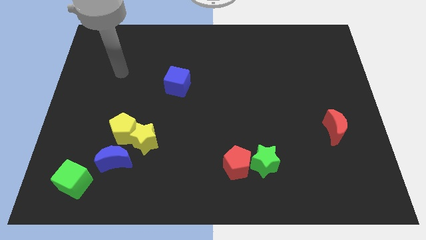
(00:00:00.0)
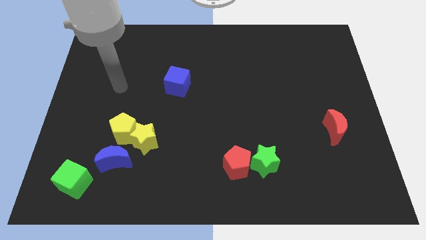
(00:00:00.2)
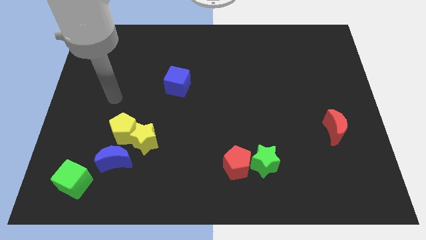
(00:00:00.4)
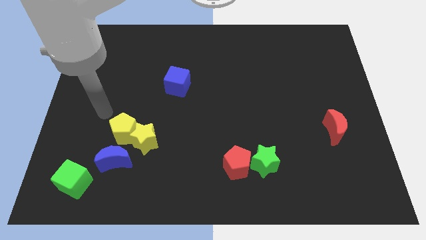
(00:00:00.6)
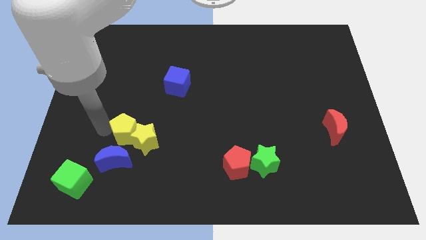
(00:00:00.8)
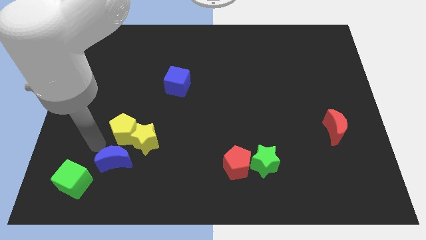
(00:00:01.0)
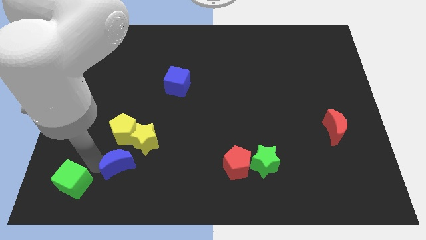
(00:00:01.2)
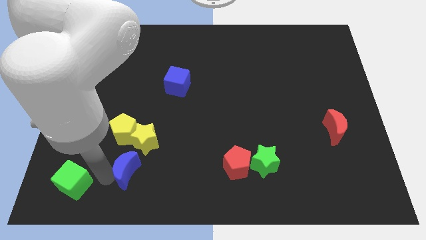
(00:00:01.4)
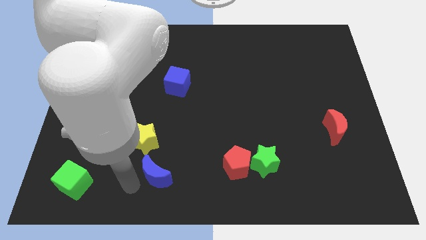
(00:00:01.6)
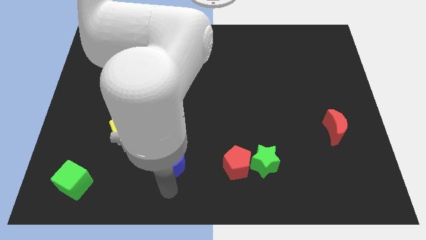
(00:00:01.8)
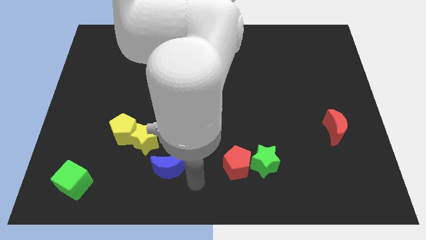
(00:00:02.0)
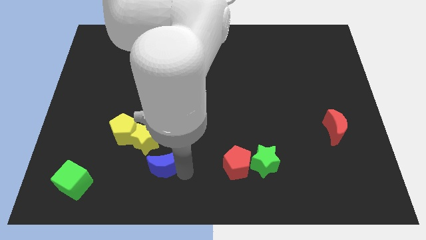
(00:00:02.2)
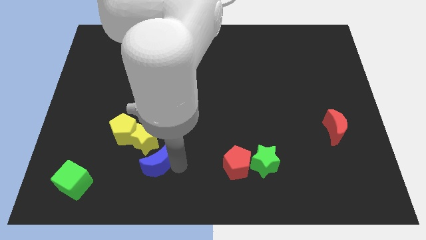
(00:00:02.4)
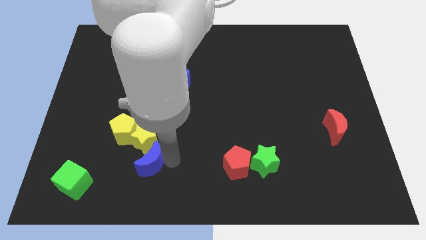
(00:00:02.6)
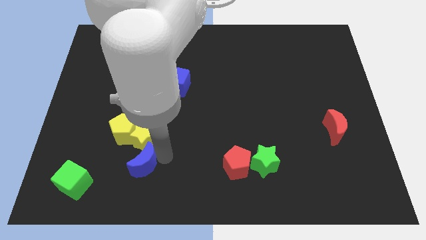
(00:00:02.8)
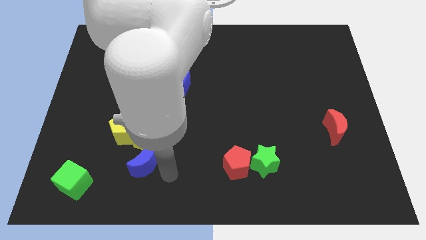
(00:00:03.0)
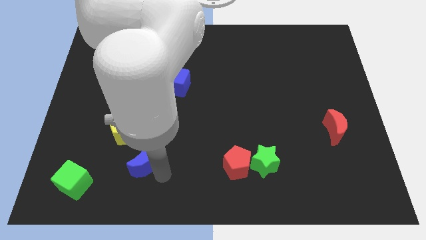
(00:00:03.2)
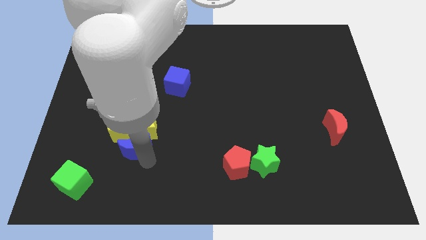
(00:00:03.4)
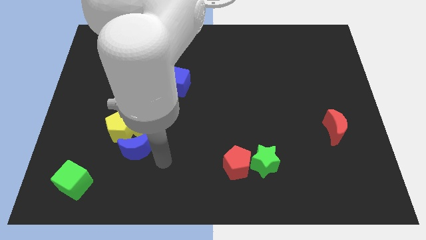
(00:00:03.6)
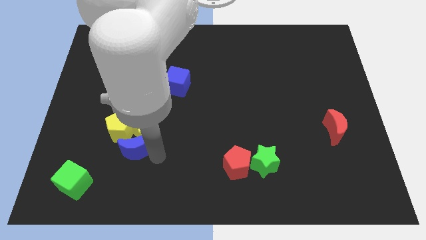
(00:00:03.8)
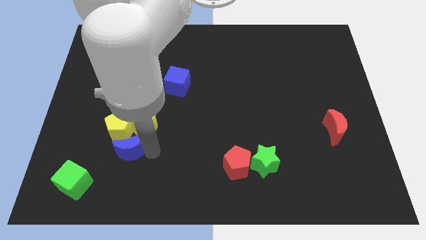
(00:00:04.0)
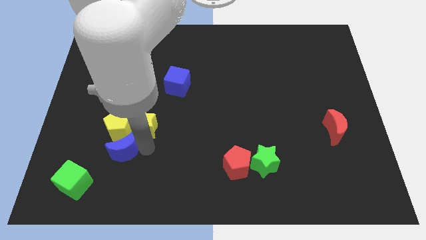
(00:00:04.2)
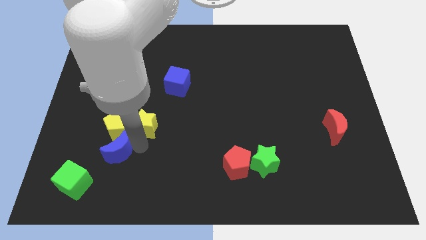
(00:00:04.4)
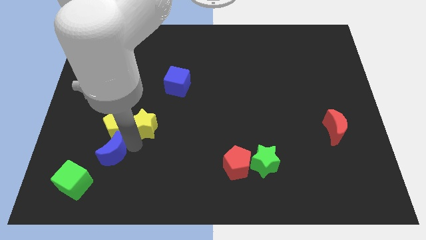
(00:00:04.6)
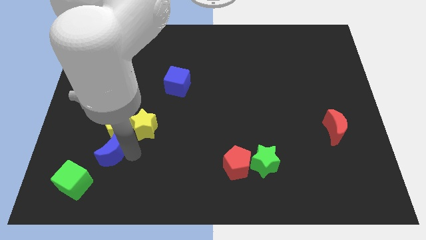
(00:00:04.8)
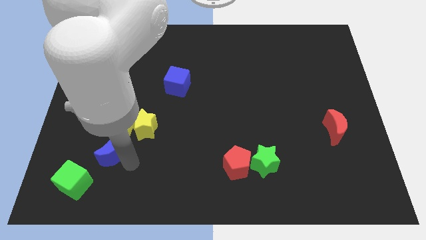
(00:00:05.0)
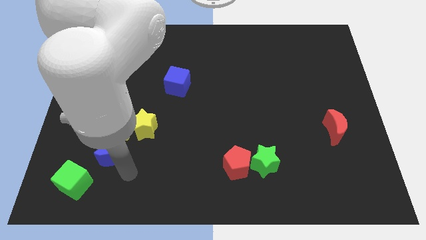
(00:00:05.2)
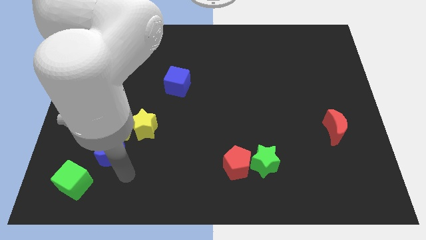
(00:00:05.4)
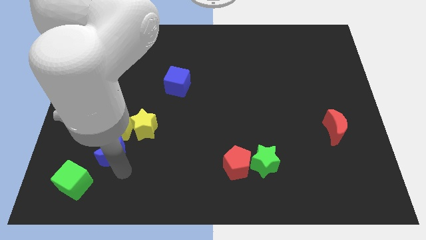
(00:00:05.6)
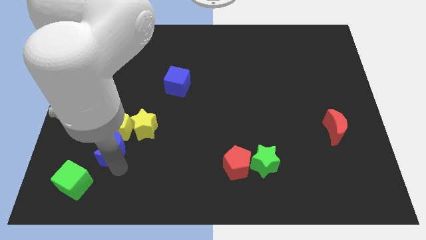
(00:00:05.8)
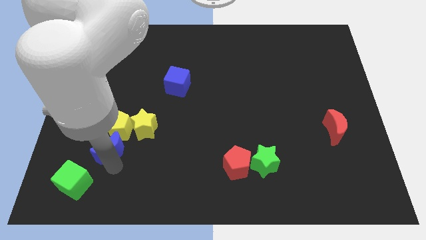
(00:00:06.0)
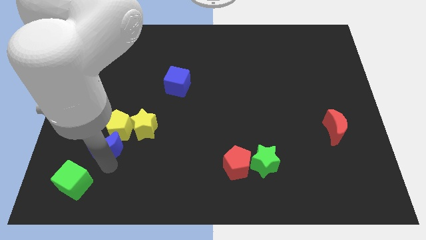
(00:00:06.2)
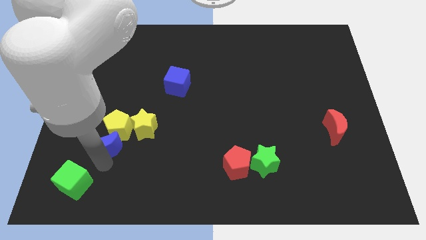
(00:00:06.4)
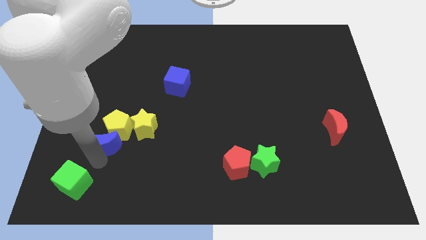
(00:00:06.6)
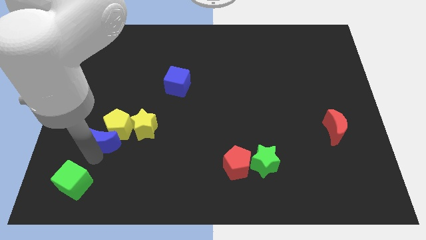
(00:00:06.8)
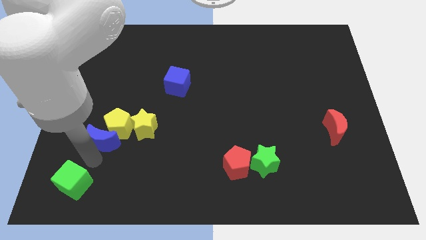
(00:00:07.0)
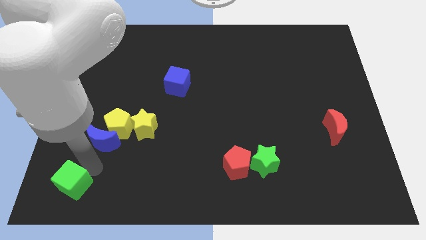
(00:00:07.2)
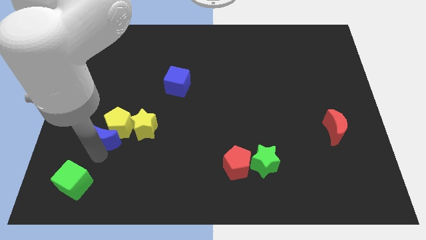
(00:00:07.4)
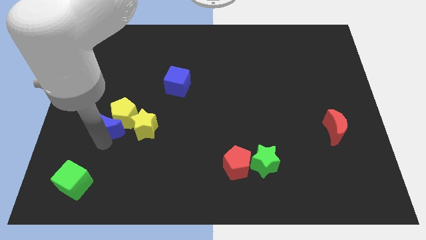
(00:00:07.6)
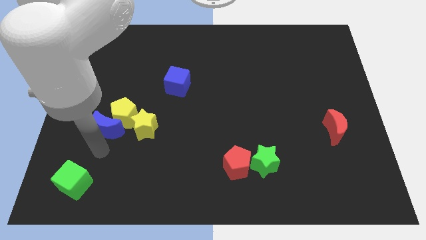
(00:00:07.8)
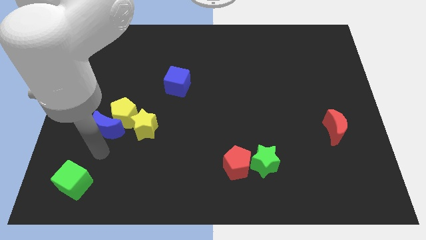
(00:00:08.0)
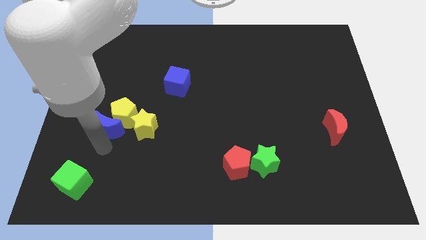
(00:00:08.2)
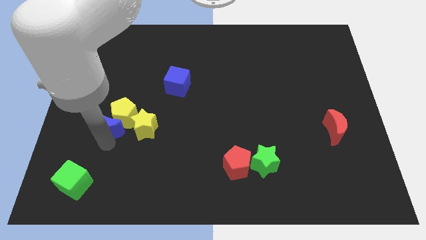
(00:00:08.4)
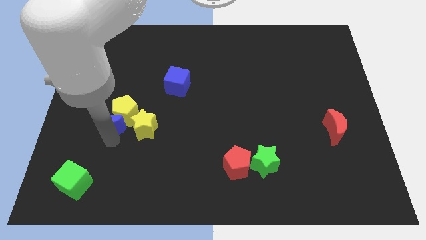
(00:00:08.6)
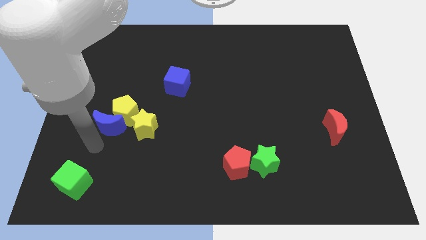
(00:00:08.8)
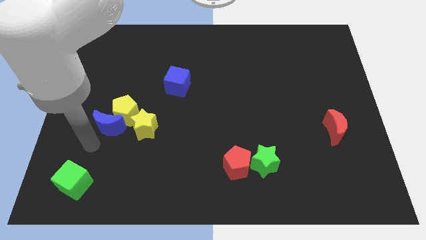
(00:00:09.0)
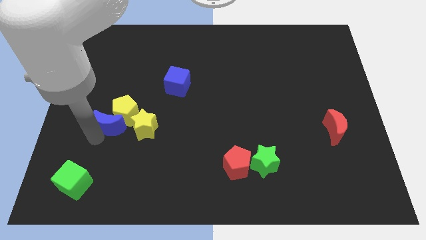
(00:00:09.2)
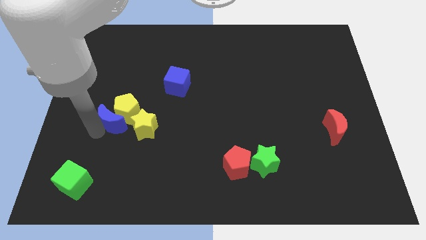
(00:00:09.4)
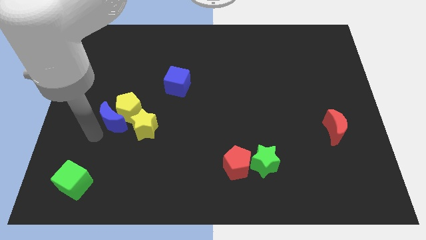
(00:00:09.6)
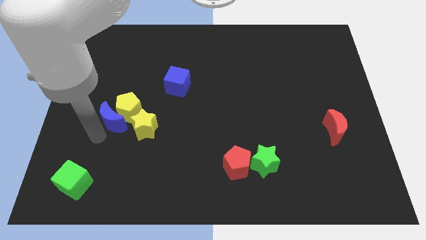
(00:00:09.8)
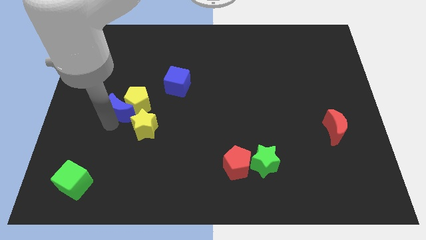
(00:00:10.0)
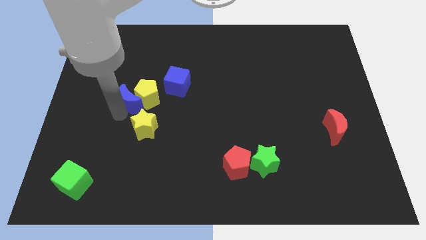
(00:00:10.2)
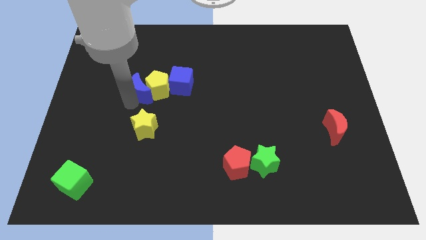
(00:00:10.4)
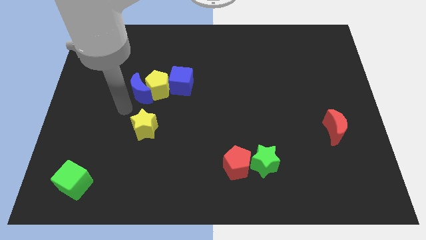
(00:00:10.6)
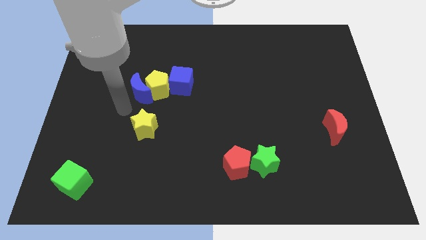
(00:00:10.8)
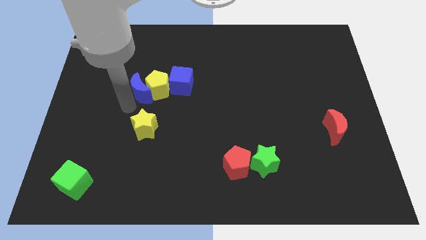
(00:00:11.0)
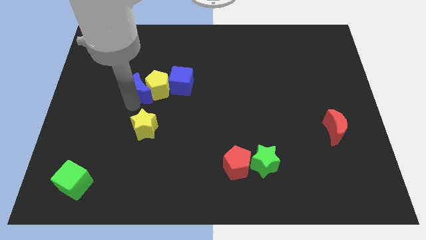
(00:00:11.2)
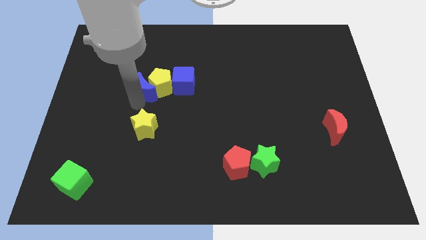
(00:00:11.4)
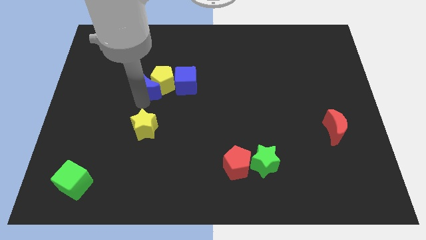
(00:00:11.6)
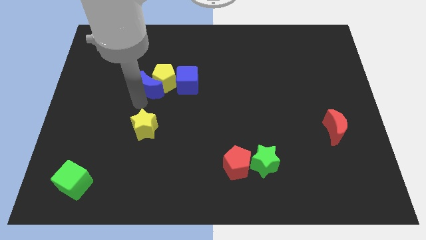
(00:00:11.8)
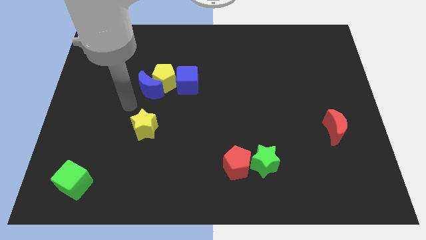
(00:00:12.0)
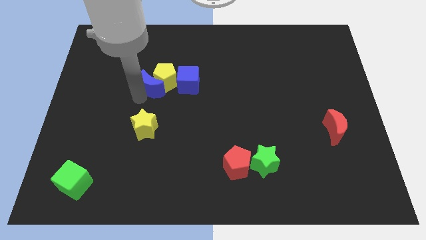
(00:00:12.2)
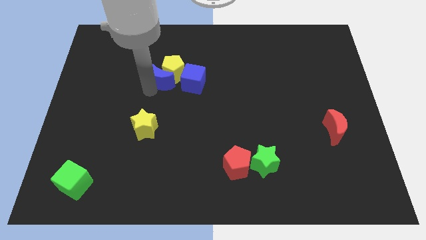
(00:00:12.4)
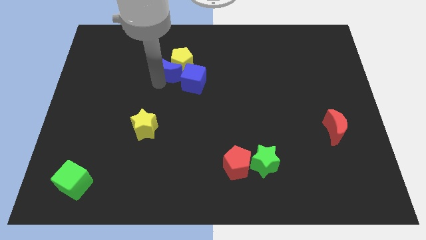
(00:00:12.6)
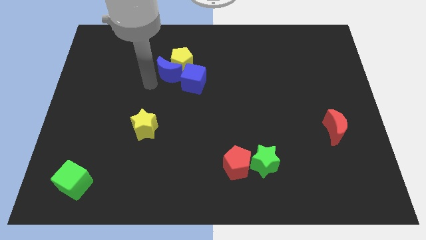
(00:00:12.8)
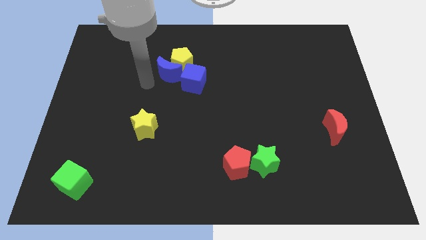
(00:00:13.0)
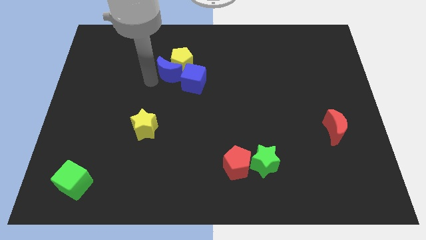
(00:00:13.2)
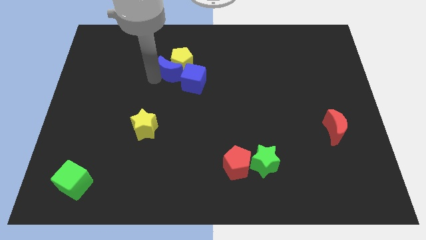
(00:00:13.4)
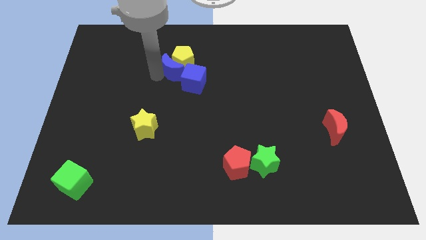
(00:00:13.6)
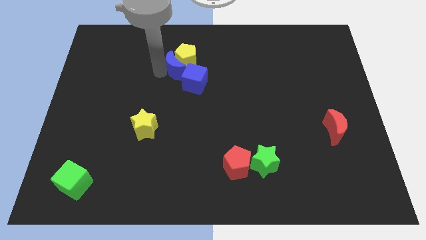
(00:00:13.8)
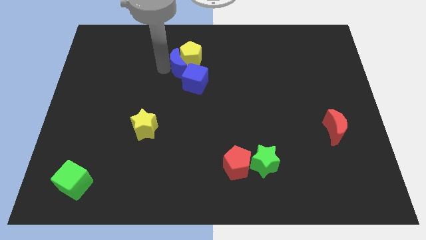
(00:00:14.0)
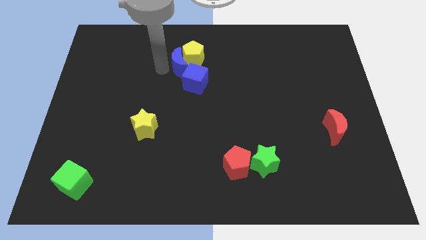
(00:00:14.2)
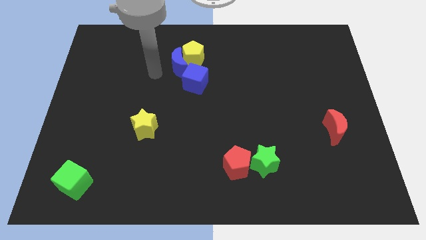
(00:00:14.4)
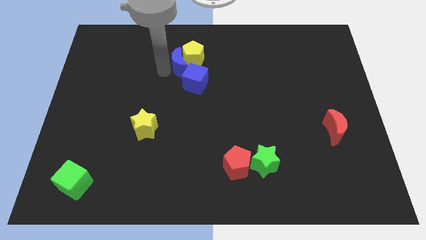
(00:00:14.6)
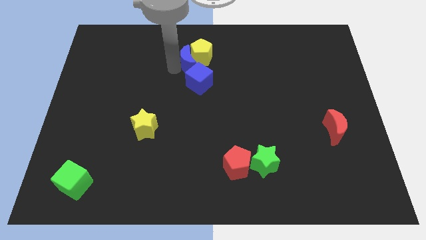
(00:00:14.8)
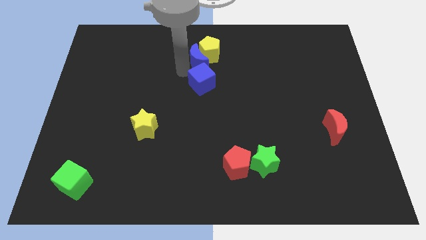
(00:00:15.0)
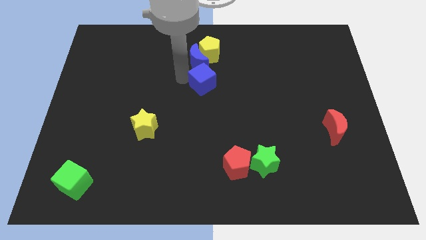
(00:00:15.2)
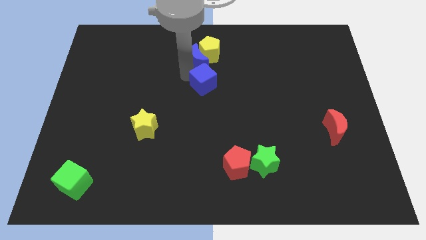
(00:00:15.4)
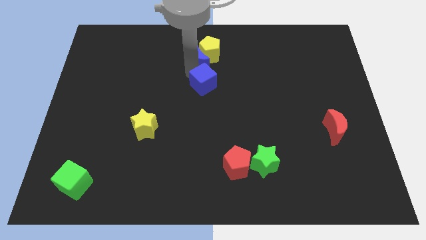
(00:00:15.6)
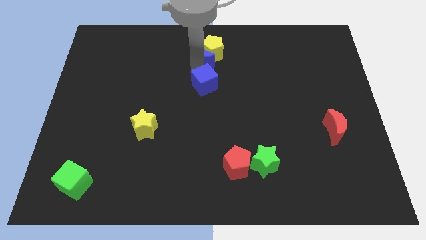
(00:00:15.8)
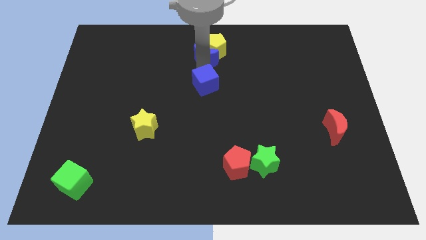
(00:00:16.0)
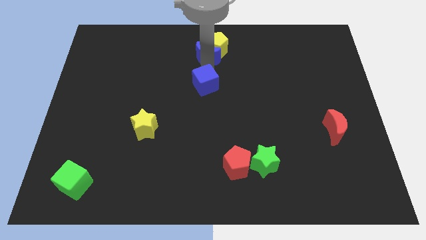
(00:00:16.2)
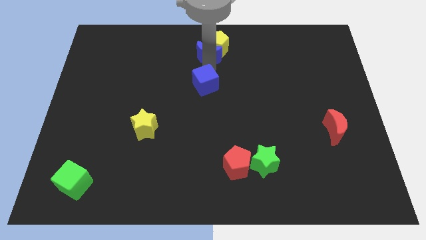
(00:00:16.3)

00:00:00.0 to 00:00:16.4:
slide the blue moon to the top side
